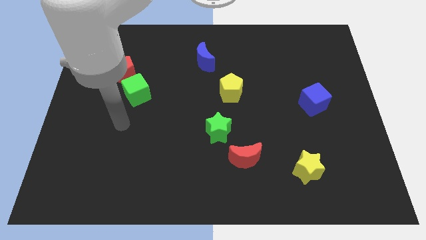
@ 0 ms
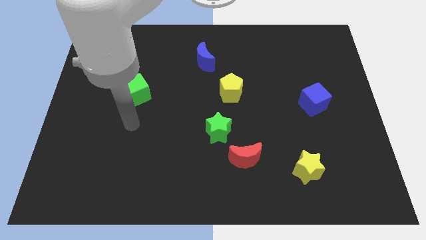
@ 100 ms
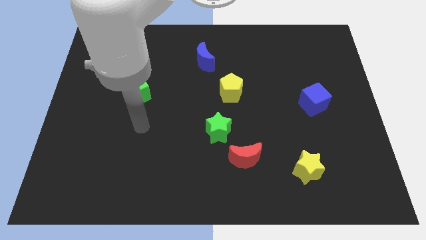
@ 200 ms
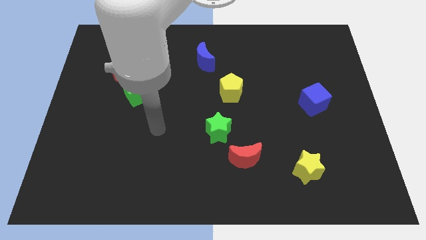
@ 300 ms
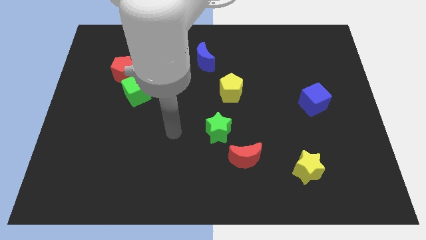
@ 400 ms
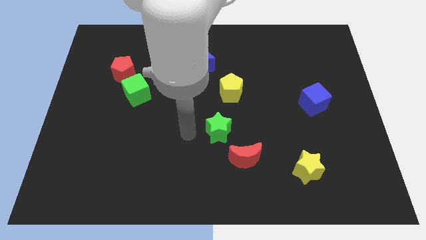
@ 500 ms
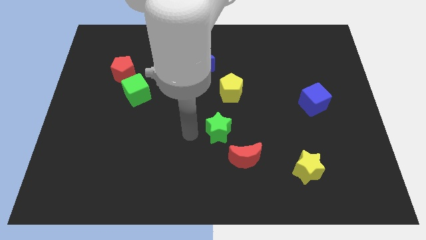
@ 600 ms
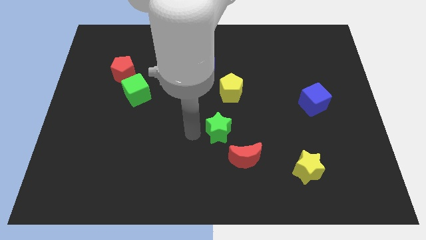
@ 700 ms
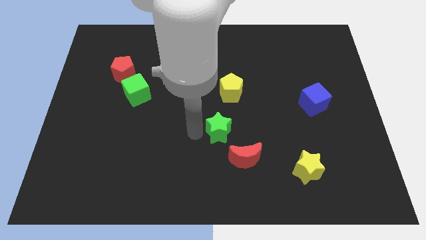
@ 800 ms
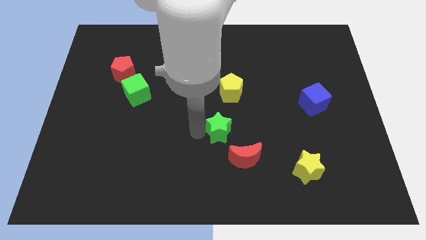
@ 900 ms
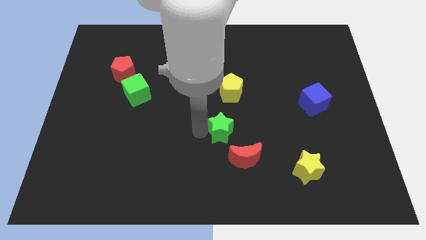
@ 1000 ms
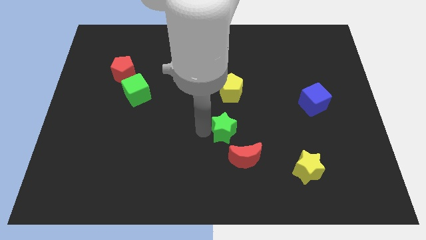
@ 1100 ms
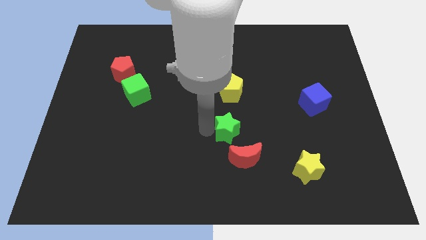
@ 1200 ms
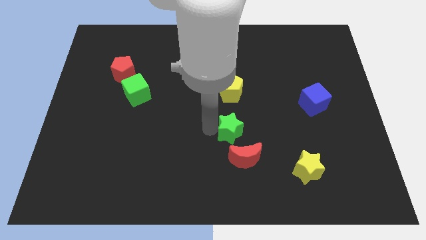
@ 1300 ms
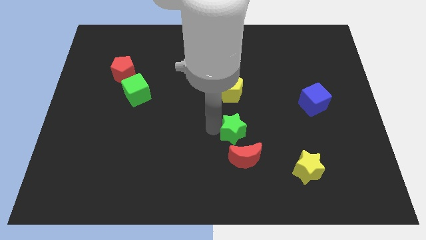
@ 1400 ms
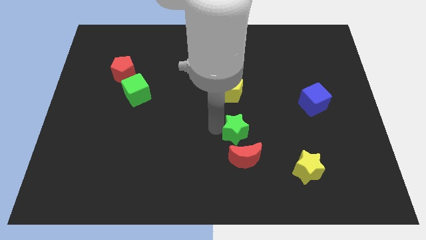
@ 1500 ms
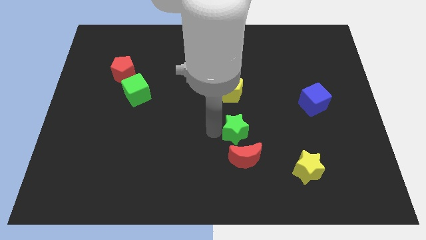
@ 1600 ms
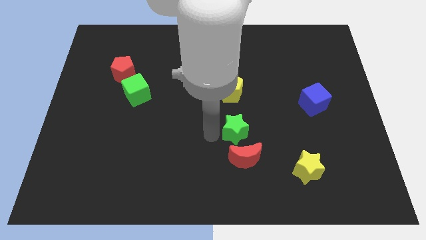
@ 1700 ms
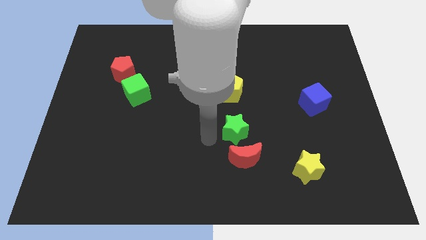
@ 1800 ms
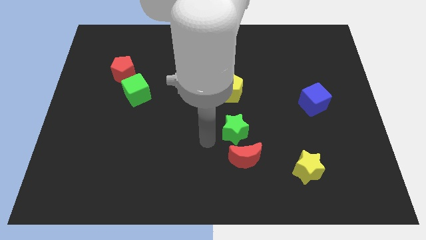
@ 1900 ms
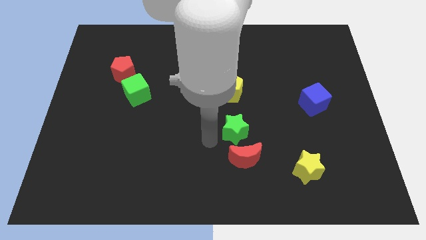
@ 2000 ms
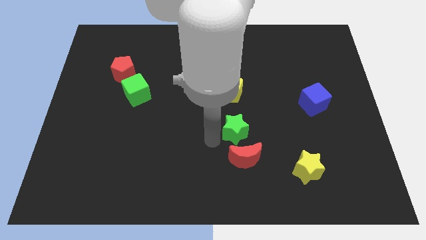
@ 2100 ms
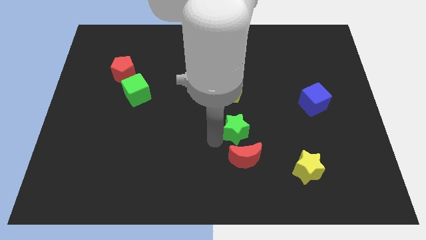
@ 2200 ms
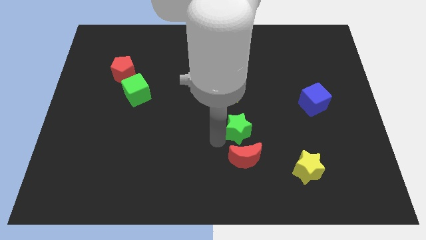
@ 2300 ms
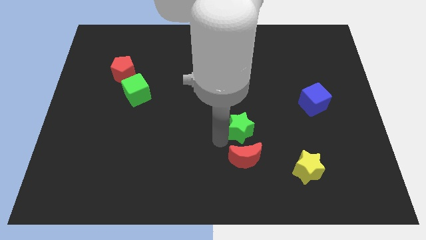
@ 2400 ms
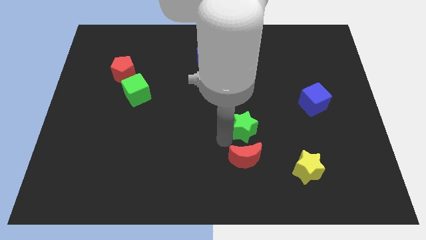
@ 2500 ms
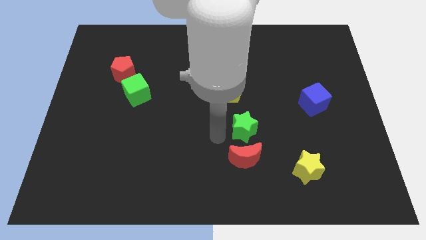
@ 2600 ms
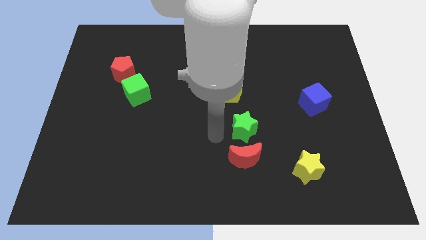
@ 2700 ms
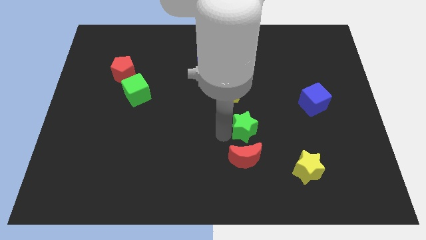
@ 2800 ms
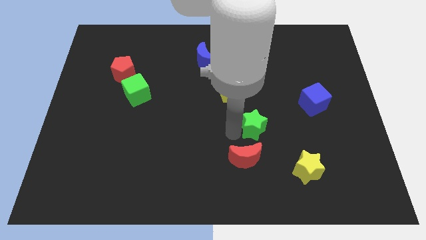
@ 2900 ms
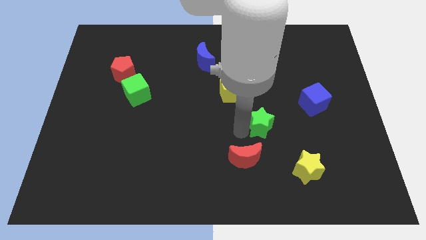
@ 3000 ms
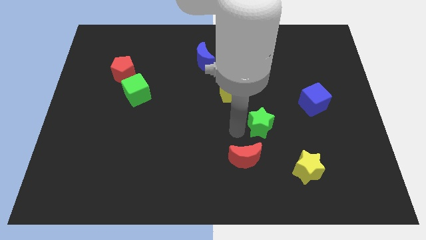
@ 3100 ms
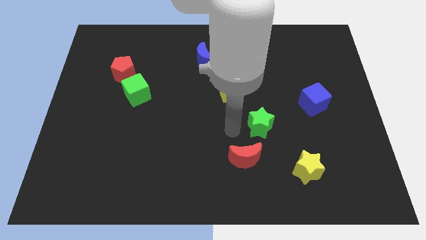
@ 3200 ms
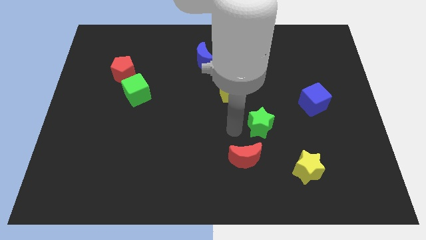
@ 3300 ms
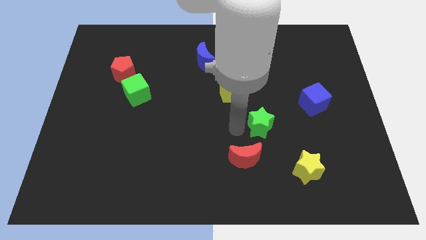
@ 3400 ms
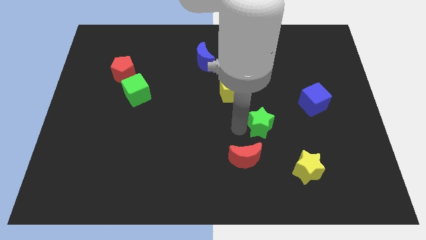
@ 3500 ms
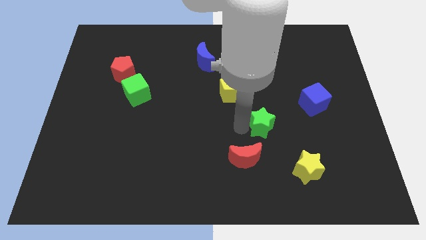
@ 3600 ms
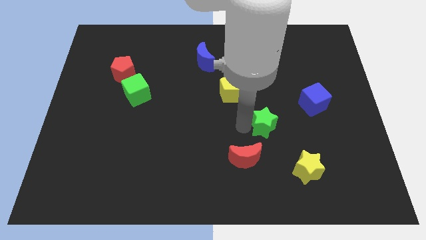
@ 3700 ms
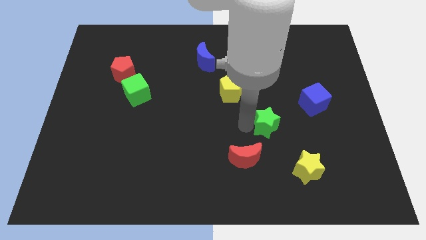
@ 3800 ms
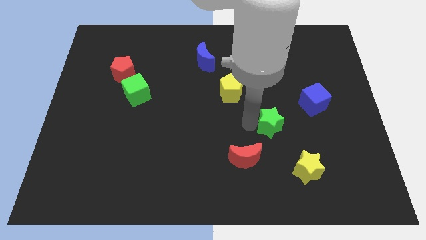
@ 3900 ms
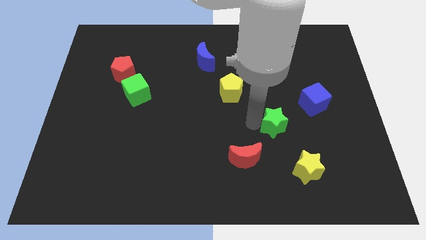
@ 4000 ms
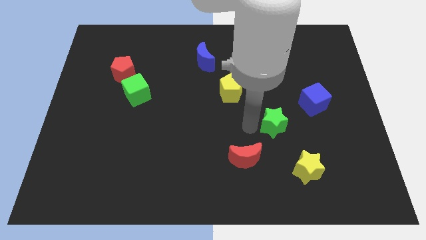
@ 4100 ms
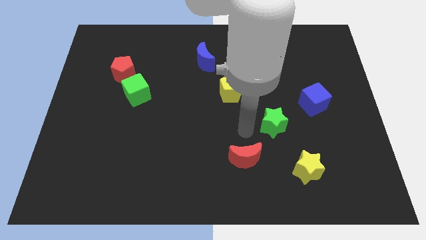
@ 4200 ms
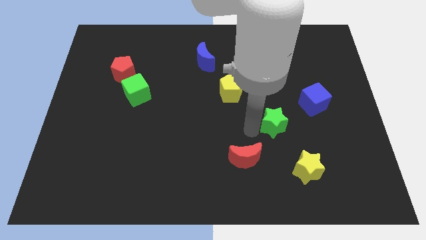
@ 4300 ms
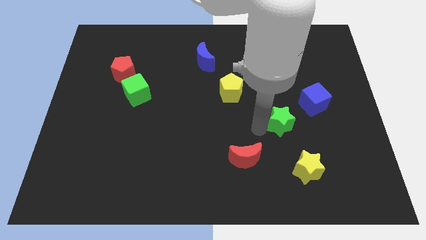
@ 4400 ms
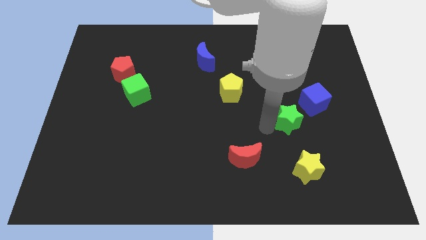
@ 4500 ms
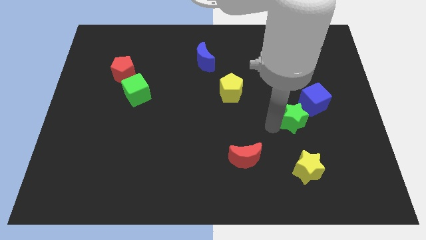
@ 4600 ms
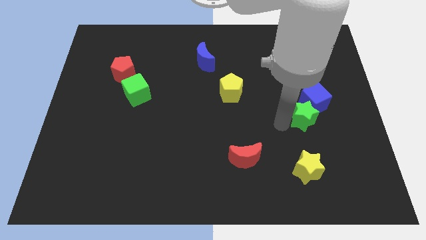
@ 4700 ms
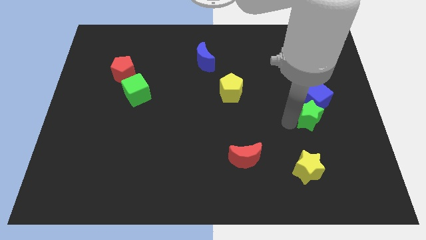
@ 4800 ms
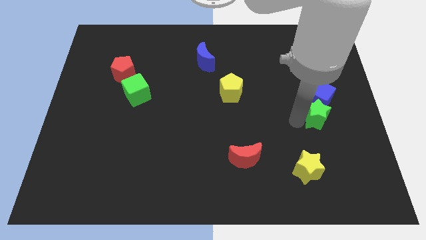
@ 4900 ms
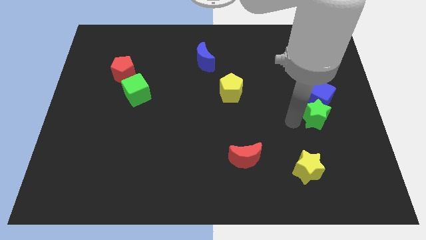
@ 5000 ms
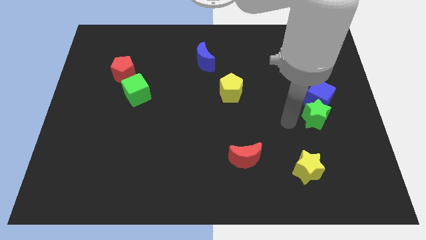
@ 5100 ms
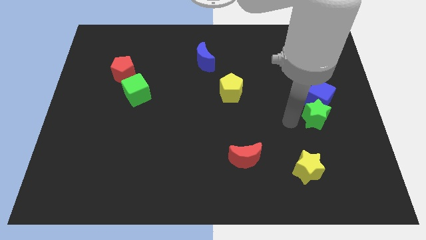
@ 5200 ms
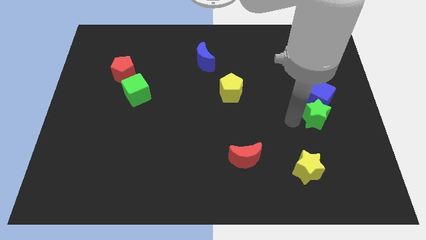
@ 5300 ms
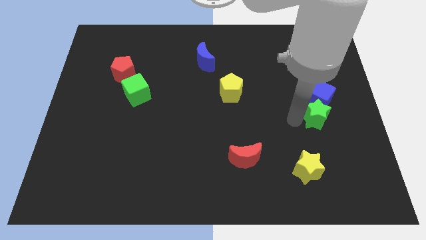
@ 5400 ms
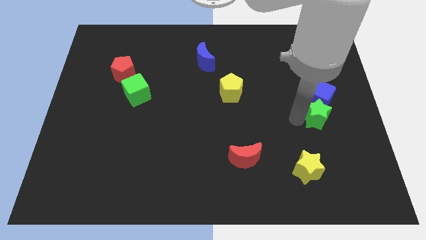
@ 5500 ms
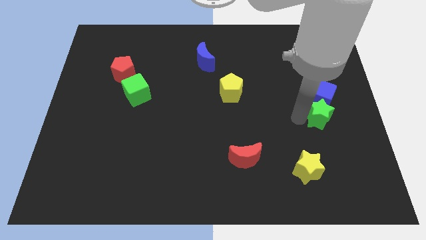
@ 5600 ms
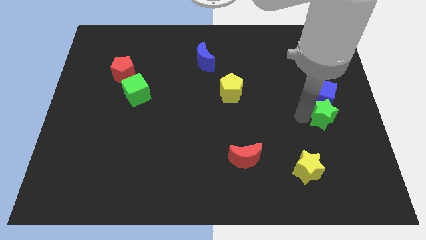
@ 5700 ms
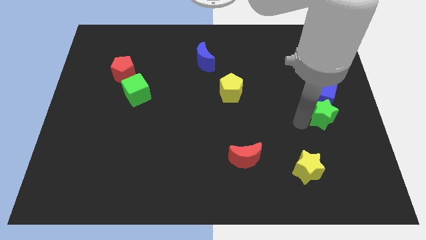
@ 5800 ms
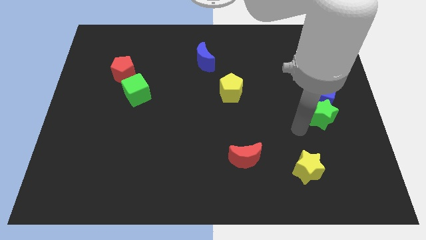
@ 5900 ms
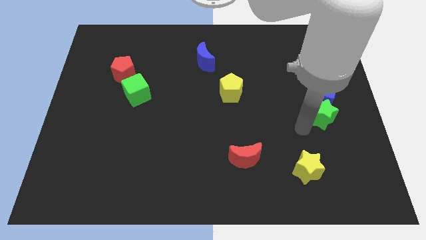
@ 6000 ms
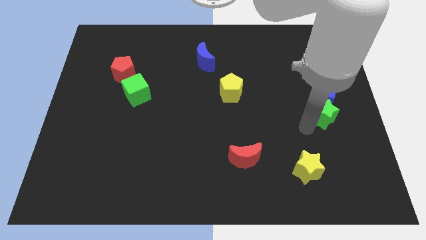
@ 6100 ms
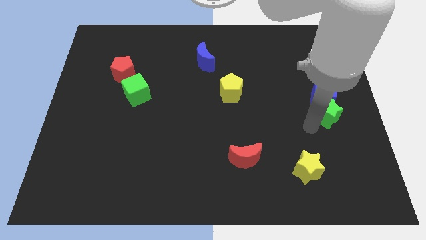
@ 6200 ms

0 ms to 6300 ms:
move the green star to the center right
